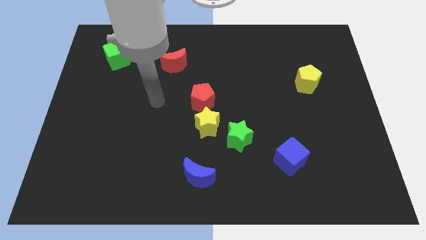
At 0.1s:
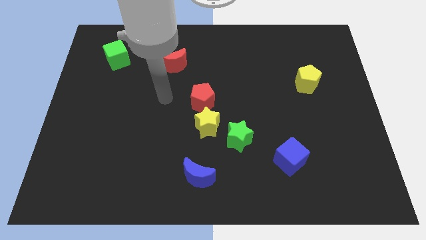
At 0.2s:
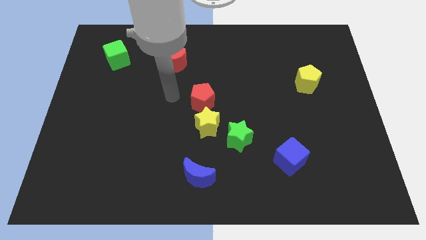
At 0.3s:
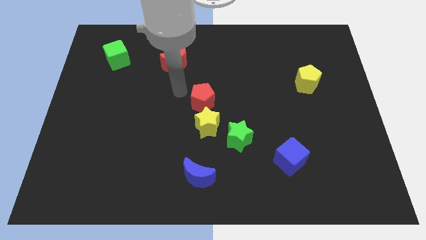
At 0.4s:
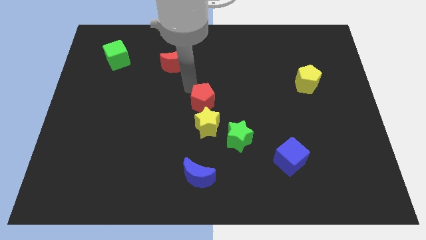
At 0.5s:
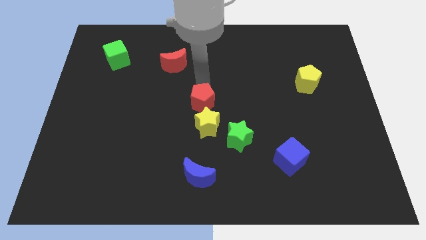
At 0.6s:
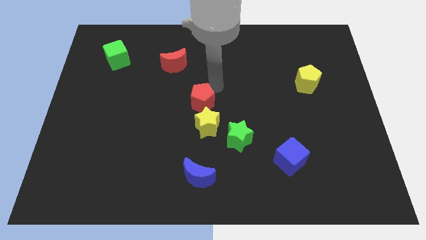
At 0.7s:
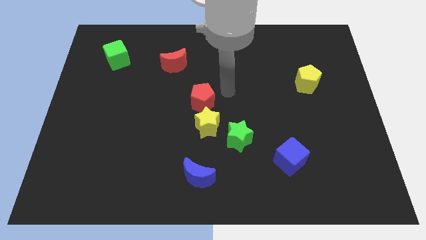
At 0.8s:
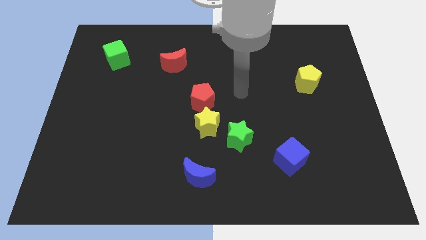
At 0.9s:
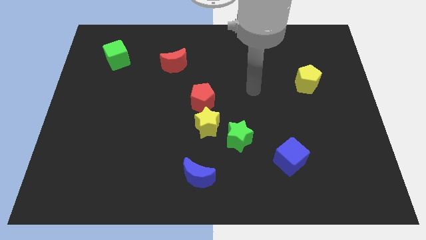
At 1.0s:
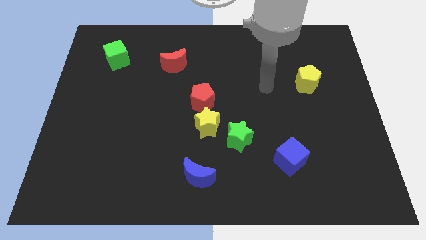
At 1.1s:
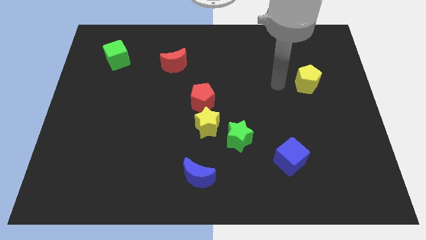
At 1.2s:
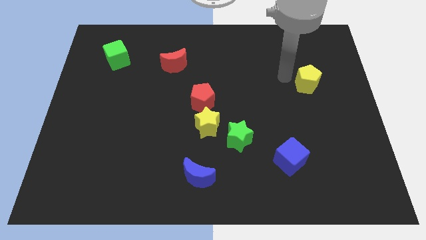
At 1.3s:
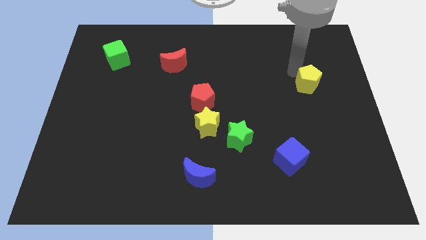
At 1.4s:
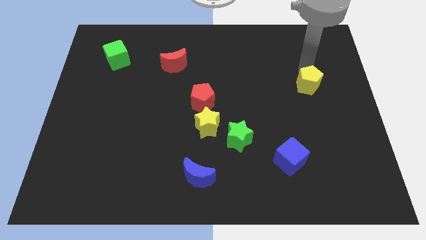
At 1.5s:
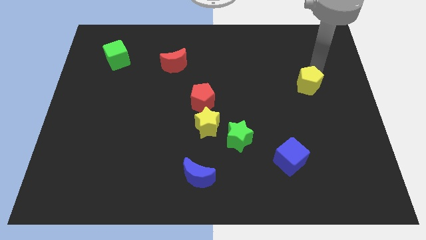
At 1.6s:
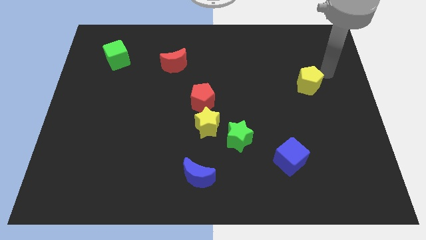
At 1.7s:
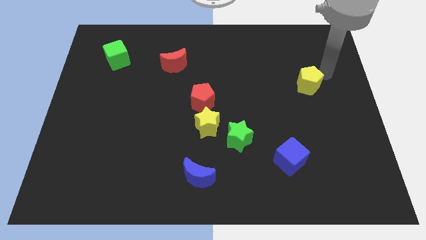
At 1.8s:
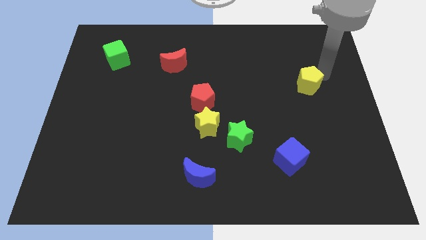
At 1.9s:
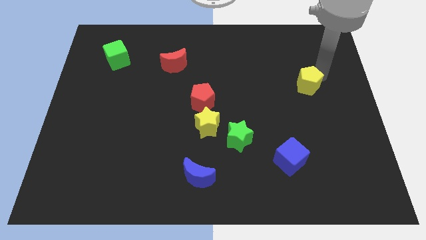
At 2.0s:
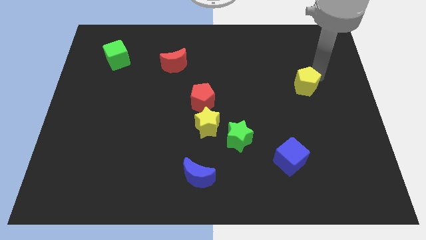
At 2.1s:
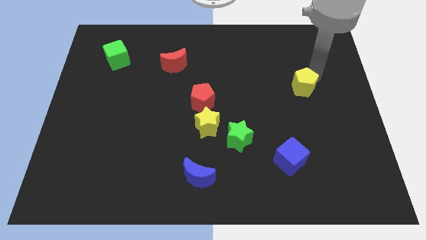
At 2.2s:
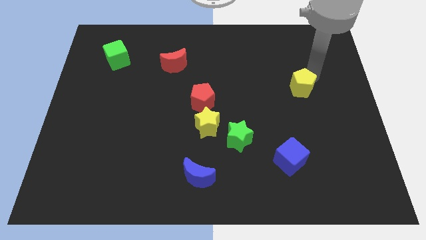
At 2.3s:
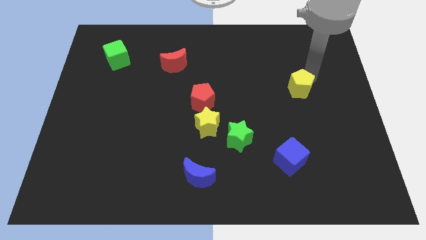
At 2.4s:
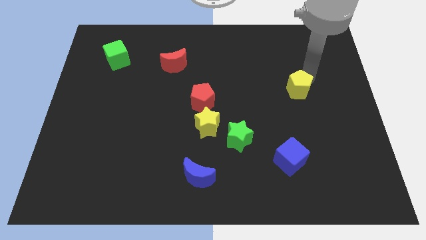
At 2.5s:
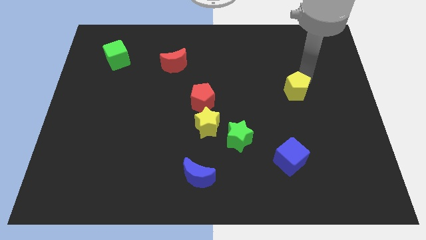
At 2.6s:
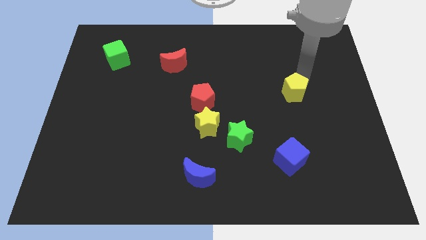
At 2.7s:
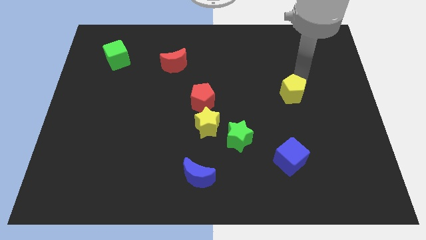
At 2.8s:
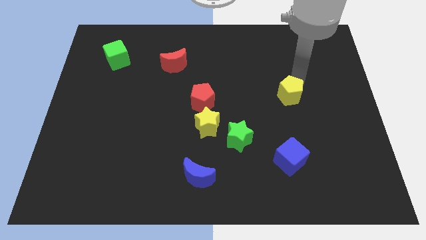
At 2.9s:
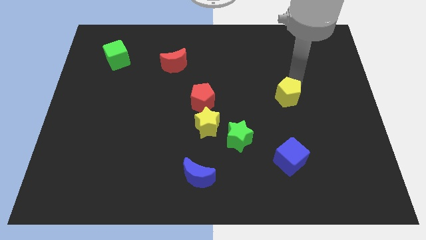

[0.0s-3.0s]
slightly move the yellow pentagon diagonally down and to the left

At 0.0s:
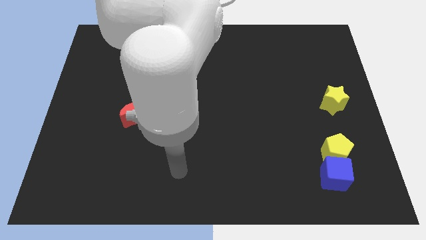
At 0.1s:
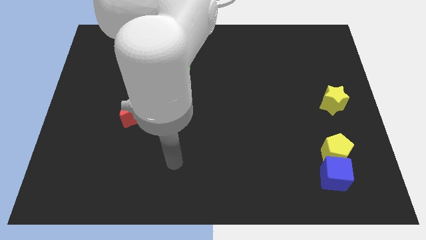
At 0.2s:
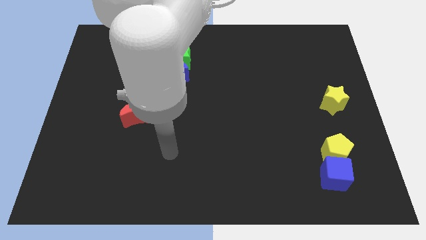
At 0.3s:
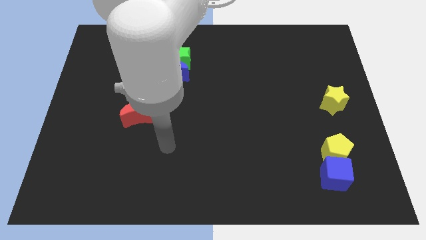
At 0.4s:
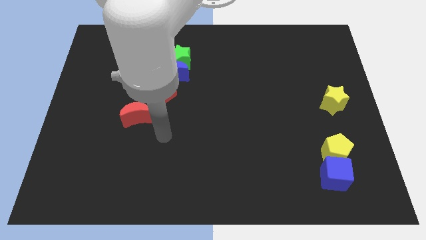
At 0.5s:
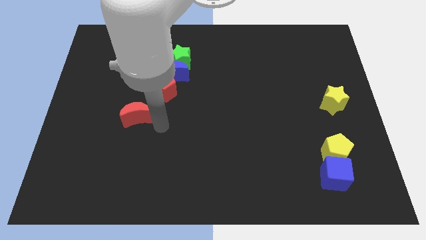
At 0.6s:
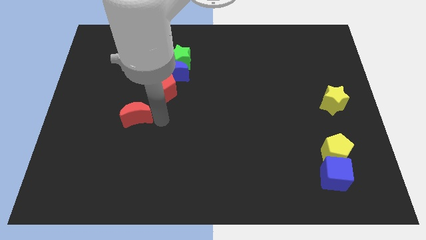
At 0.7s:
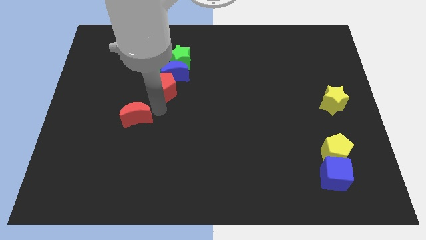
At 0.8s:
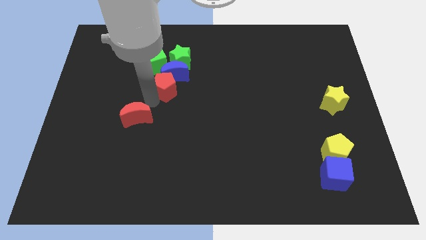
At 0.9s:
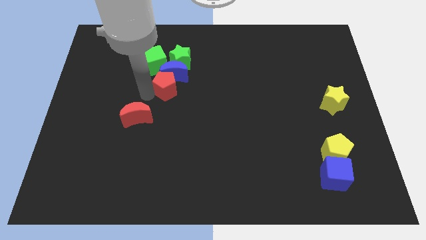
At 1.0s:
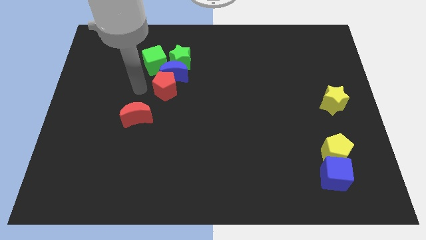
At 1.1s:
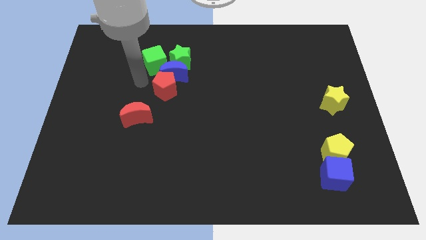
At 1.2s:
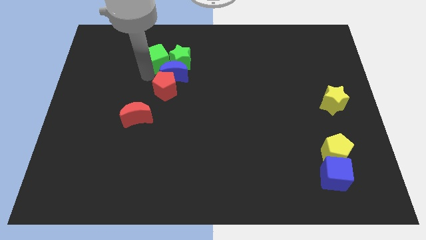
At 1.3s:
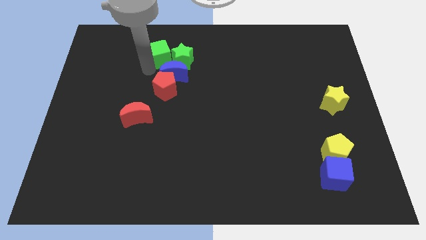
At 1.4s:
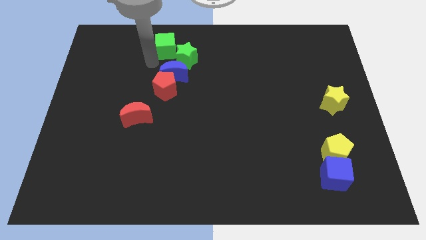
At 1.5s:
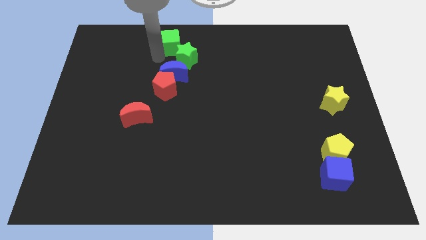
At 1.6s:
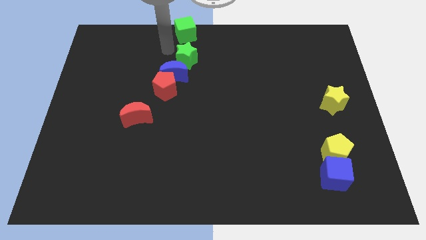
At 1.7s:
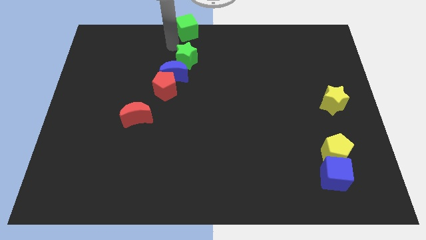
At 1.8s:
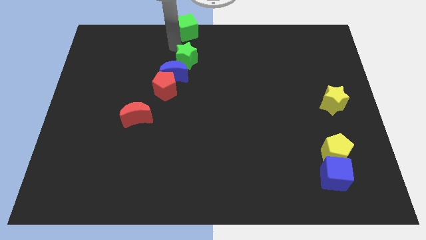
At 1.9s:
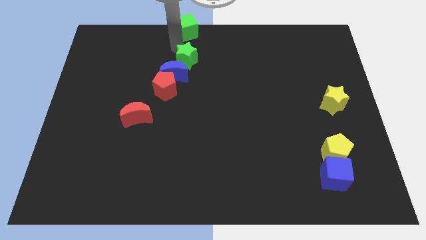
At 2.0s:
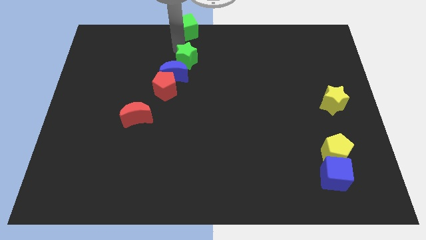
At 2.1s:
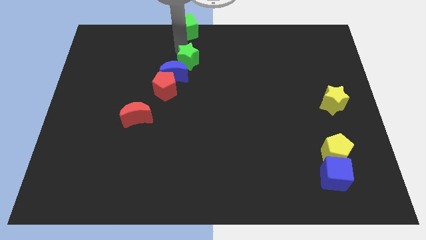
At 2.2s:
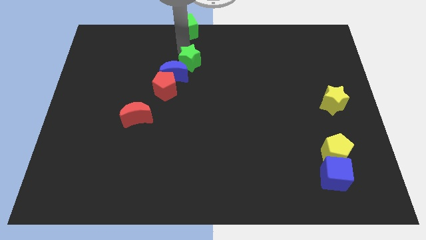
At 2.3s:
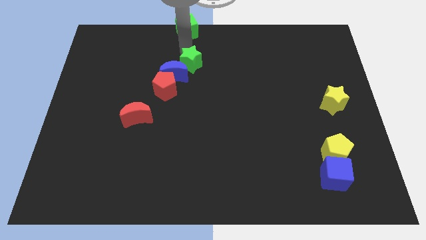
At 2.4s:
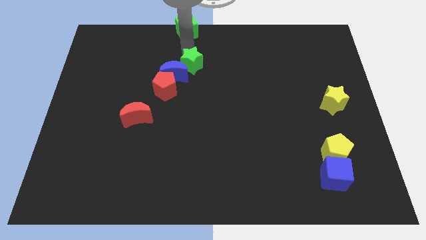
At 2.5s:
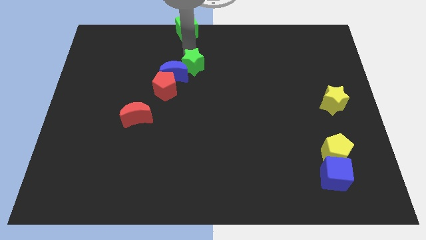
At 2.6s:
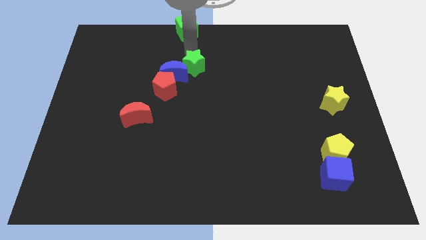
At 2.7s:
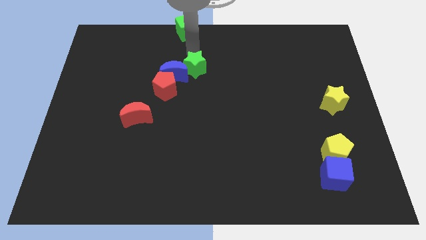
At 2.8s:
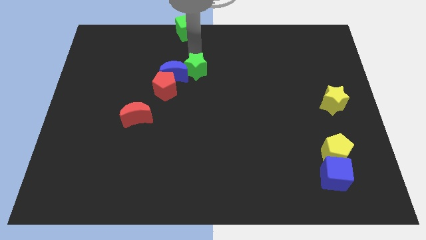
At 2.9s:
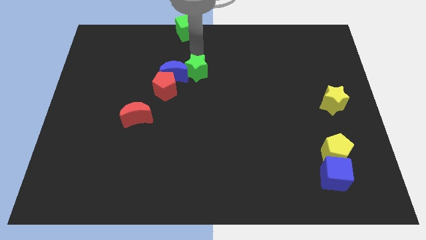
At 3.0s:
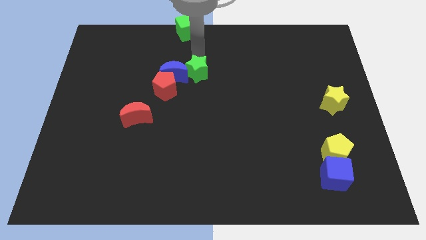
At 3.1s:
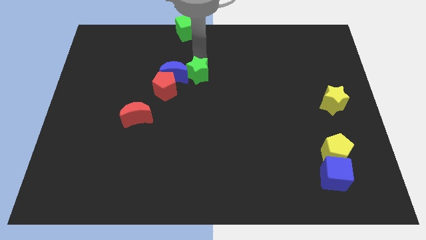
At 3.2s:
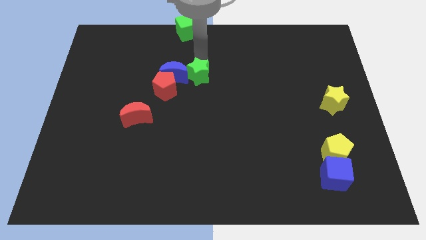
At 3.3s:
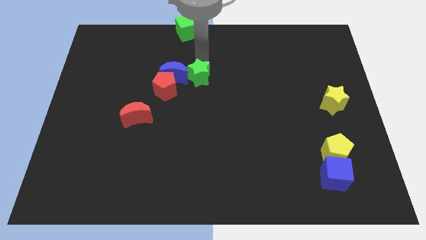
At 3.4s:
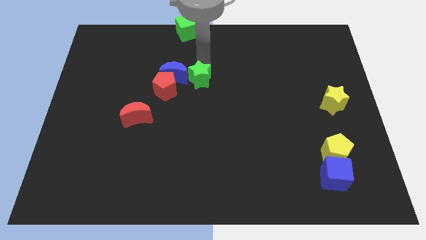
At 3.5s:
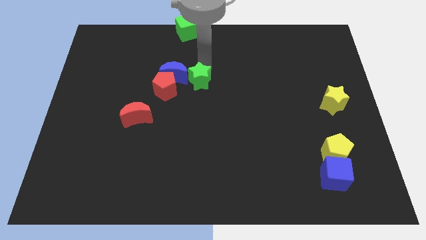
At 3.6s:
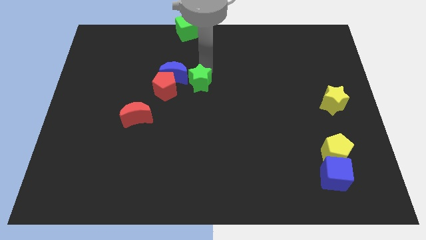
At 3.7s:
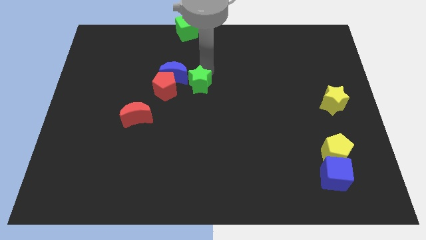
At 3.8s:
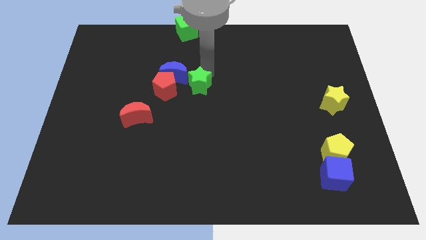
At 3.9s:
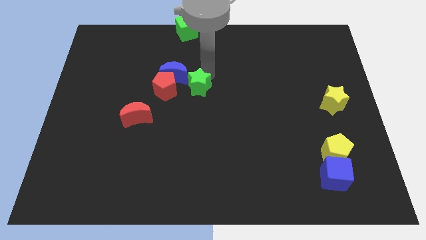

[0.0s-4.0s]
push the green star slightly downwards

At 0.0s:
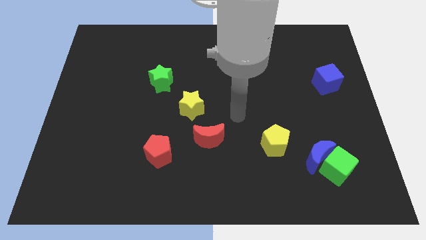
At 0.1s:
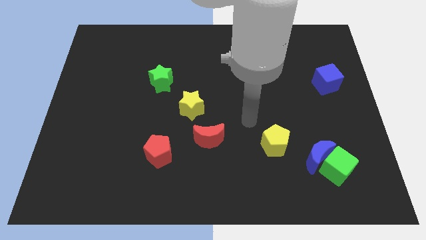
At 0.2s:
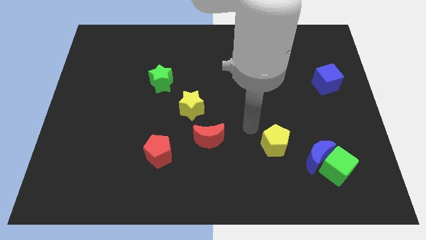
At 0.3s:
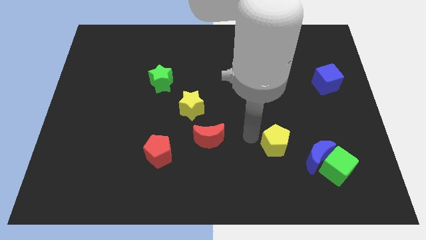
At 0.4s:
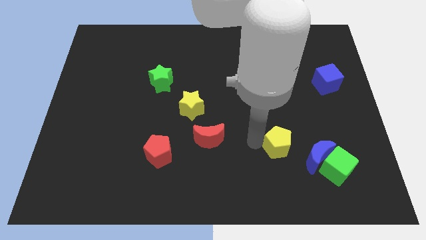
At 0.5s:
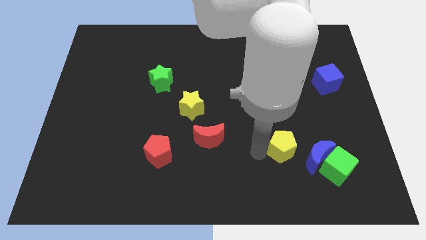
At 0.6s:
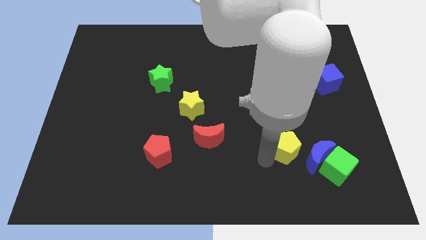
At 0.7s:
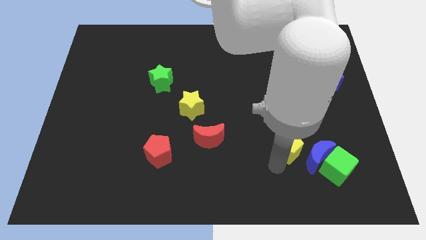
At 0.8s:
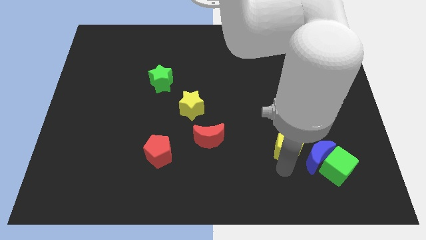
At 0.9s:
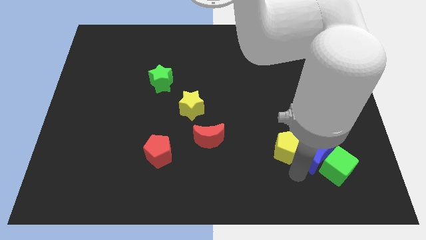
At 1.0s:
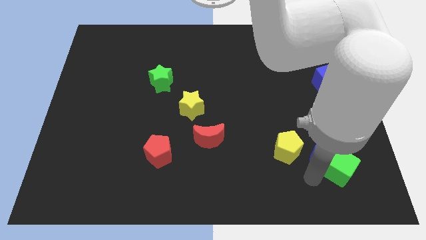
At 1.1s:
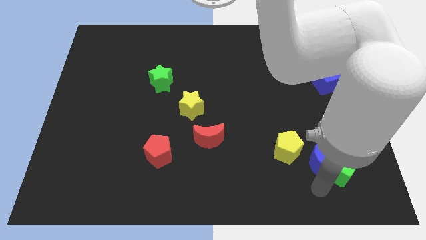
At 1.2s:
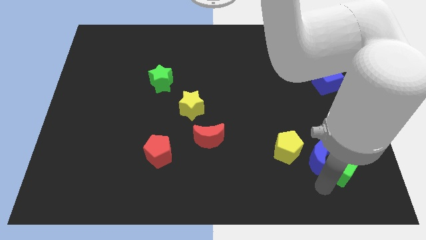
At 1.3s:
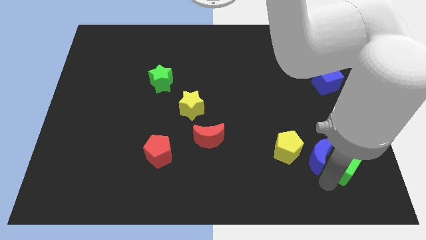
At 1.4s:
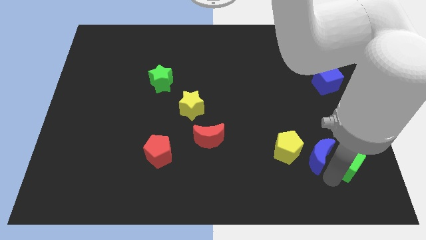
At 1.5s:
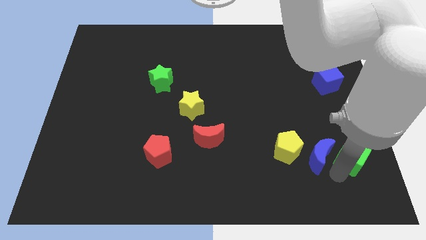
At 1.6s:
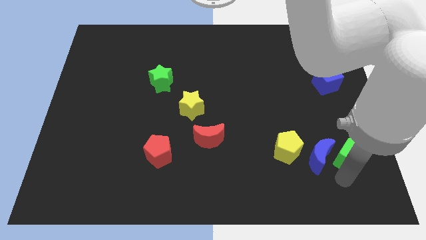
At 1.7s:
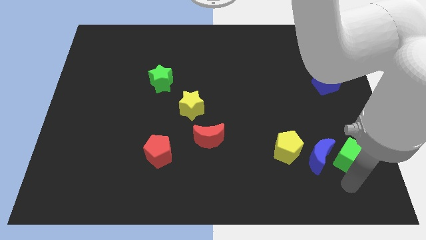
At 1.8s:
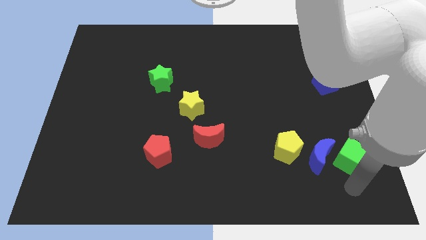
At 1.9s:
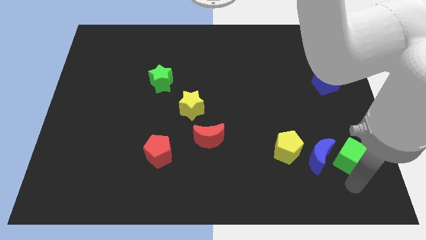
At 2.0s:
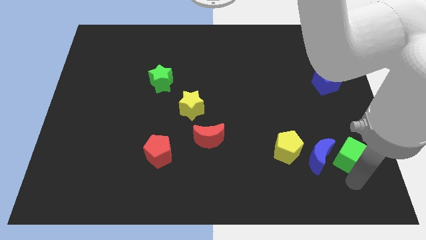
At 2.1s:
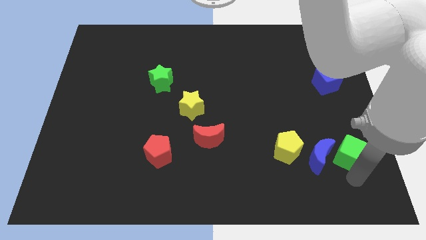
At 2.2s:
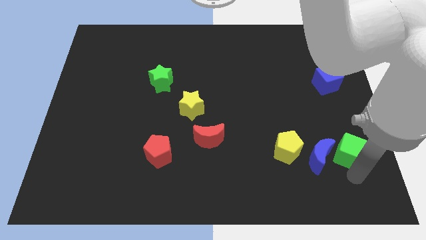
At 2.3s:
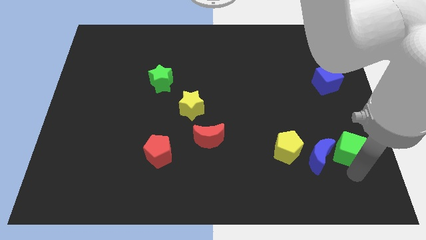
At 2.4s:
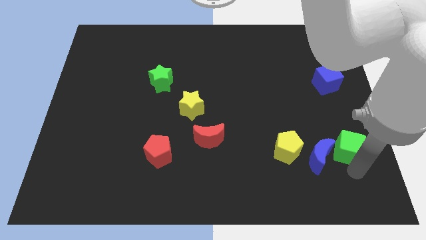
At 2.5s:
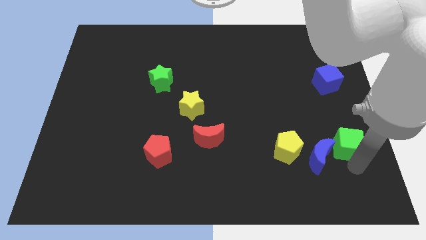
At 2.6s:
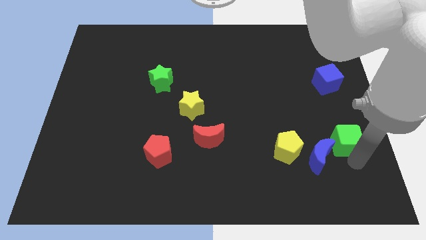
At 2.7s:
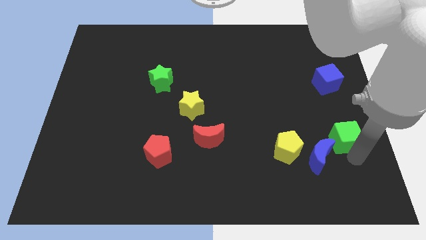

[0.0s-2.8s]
move the green cube a little bit upwards
